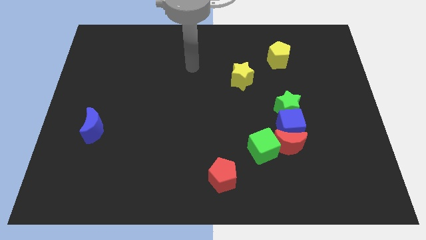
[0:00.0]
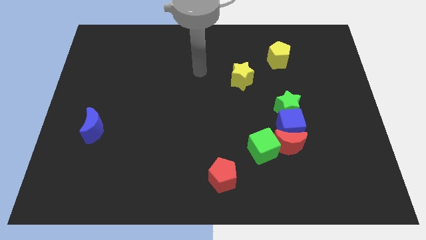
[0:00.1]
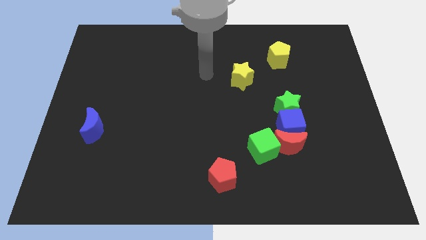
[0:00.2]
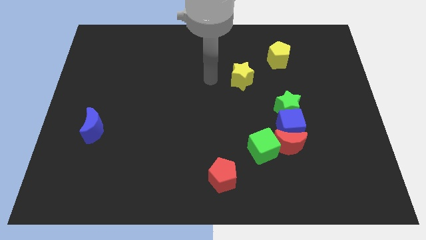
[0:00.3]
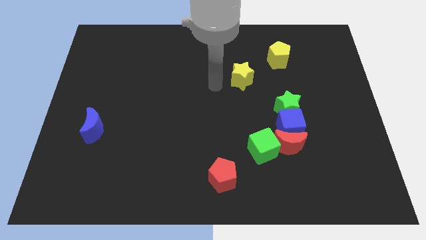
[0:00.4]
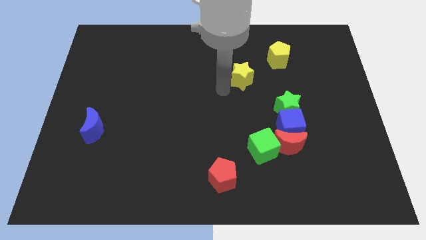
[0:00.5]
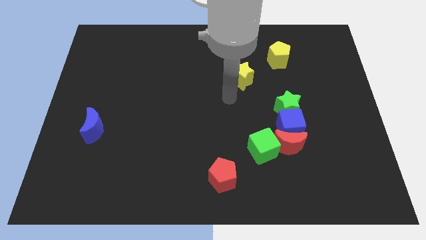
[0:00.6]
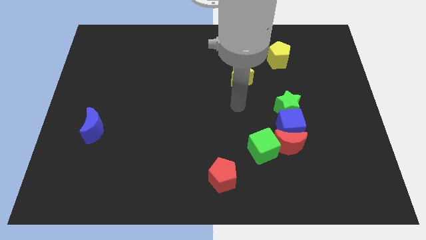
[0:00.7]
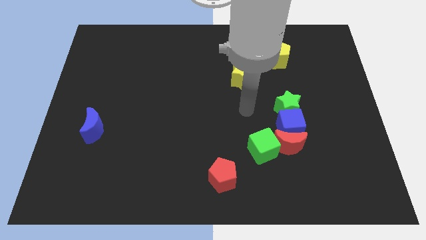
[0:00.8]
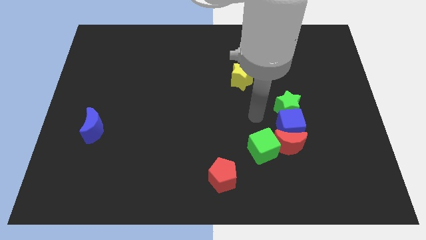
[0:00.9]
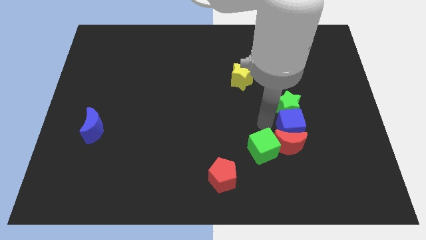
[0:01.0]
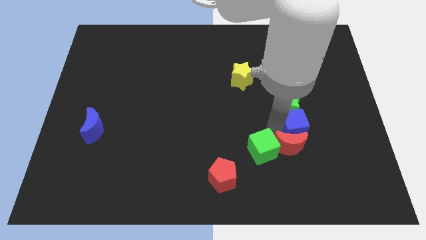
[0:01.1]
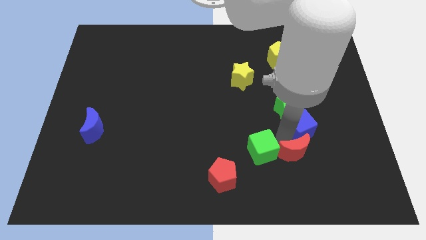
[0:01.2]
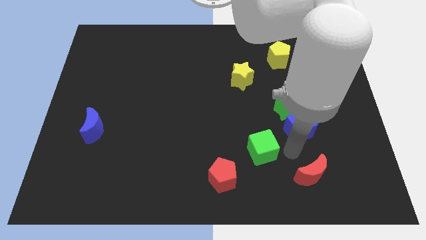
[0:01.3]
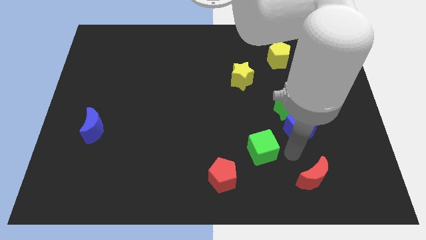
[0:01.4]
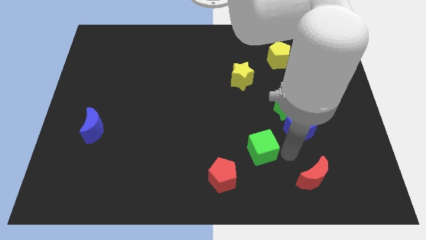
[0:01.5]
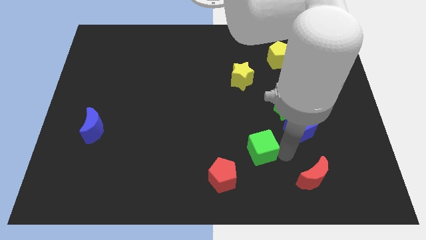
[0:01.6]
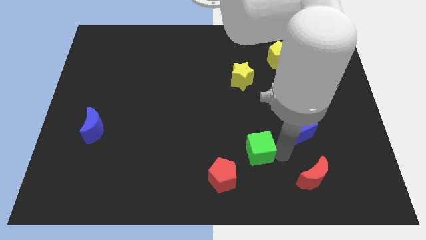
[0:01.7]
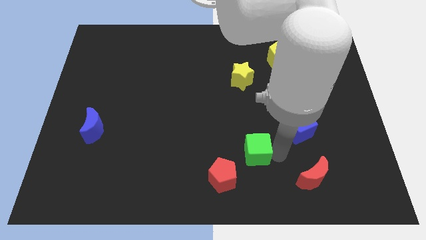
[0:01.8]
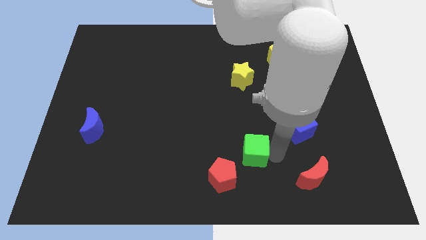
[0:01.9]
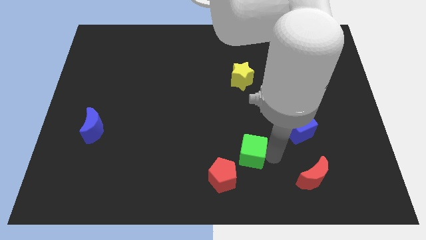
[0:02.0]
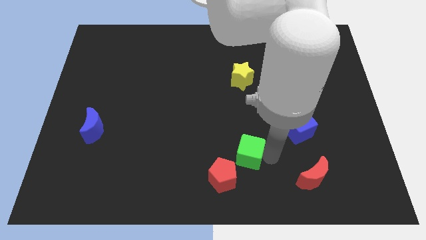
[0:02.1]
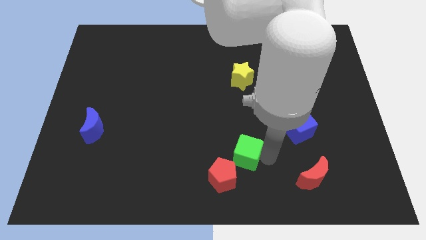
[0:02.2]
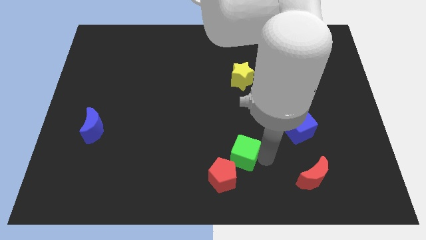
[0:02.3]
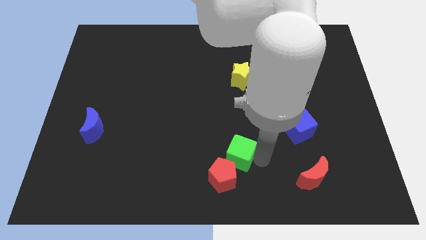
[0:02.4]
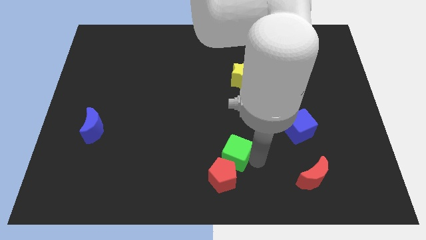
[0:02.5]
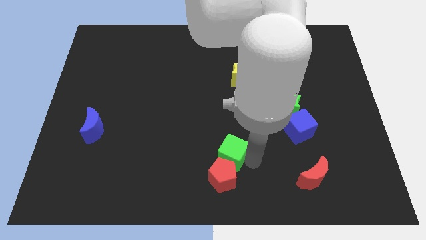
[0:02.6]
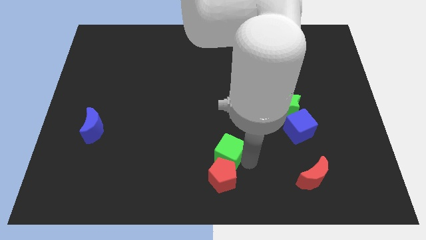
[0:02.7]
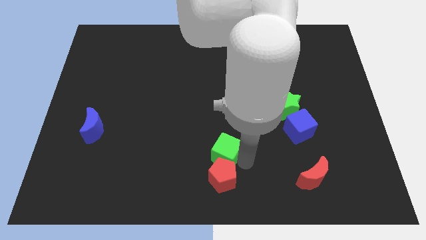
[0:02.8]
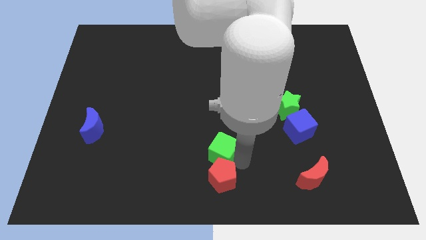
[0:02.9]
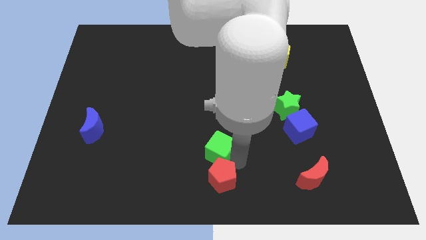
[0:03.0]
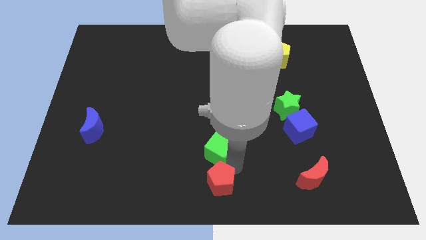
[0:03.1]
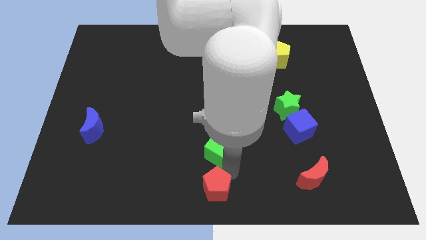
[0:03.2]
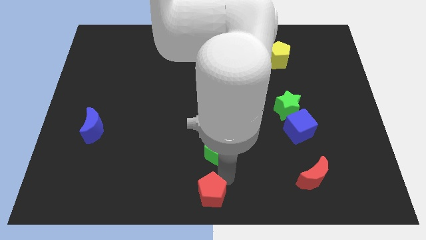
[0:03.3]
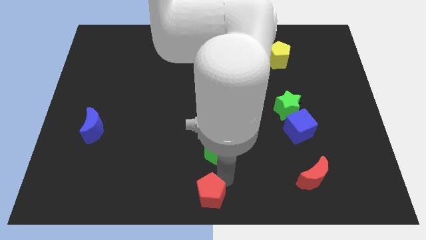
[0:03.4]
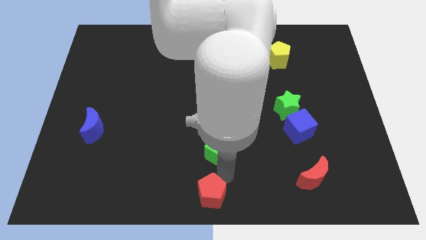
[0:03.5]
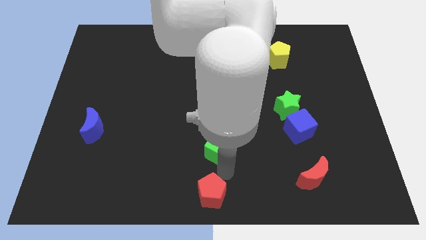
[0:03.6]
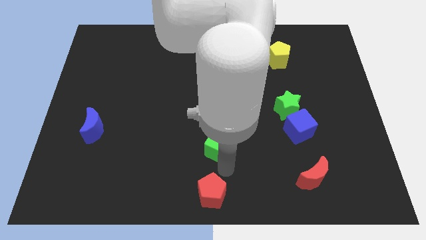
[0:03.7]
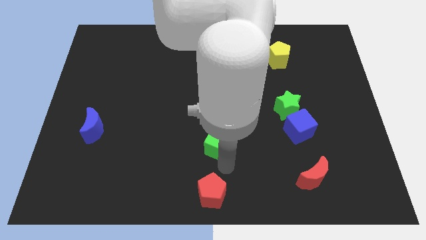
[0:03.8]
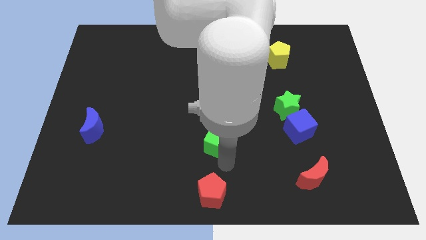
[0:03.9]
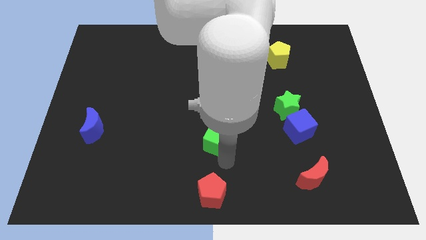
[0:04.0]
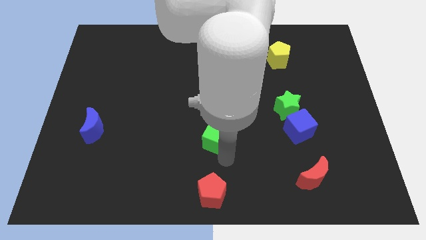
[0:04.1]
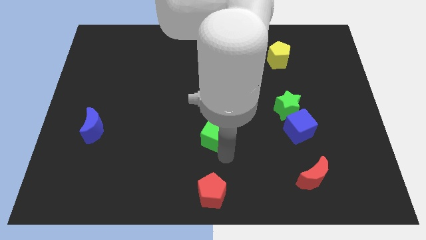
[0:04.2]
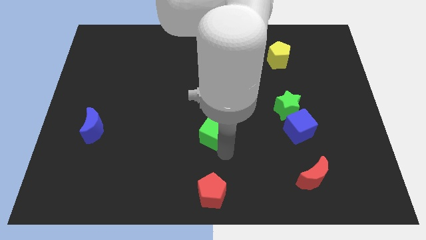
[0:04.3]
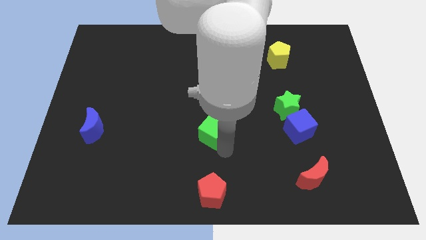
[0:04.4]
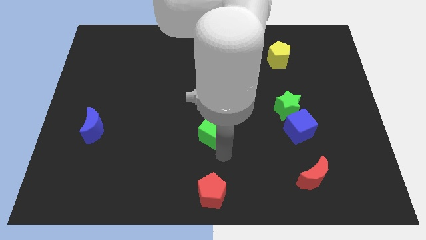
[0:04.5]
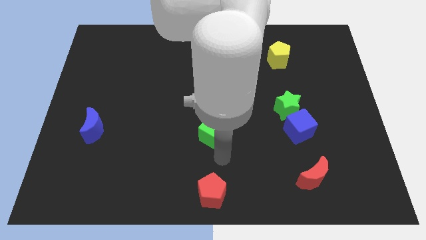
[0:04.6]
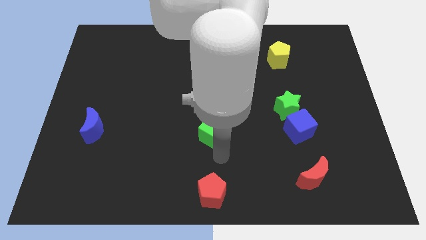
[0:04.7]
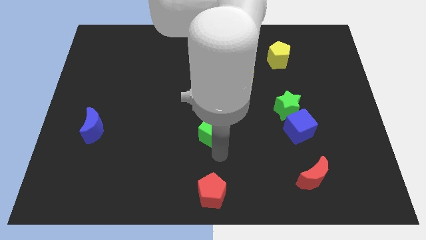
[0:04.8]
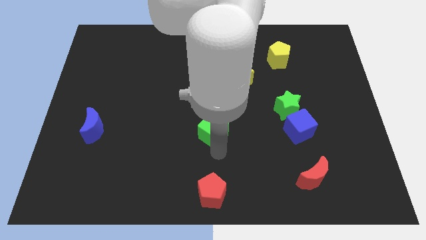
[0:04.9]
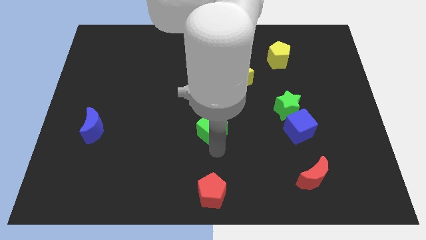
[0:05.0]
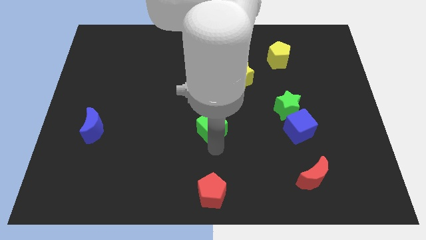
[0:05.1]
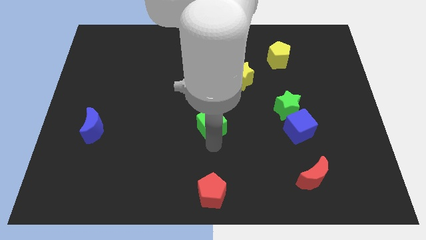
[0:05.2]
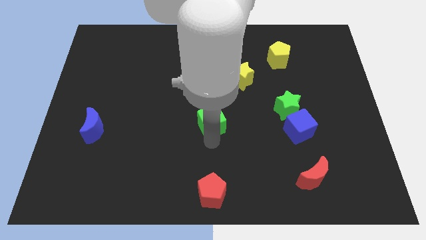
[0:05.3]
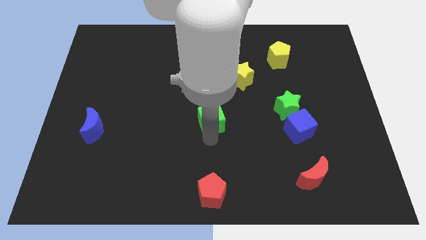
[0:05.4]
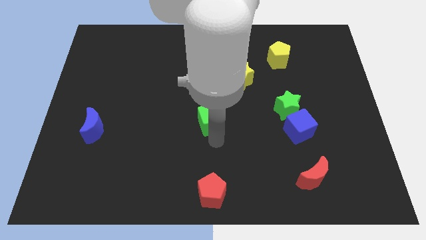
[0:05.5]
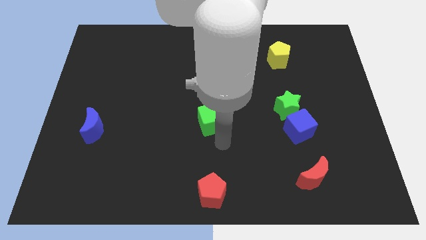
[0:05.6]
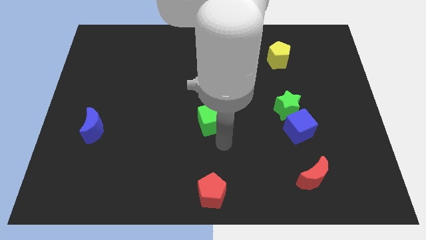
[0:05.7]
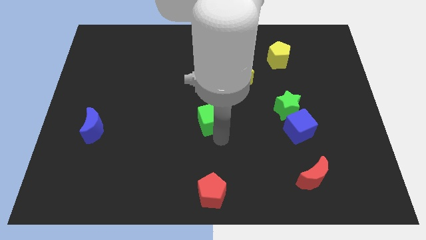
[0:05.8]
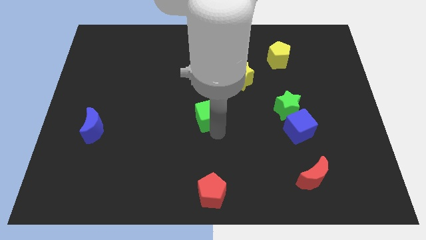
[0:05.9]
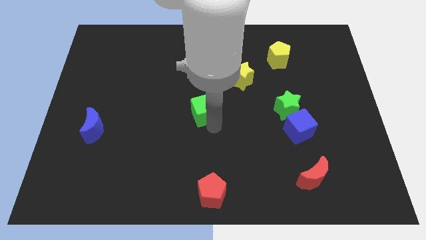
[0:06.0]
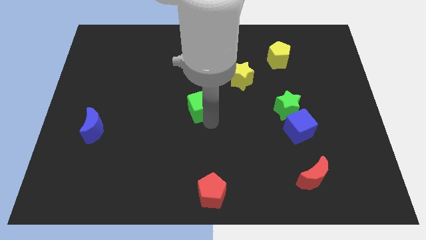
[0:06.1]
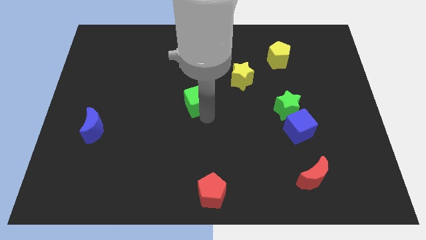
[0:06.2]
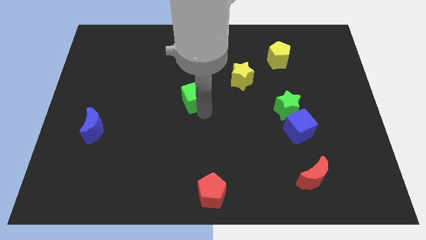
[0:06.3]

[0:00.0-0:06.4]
slide the green cube up and then to the left

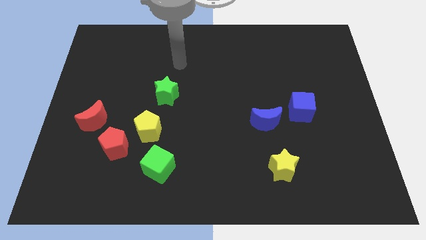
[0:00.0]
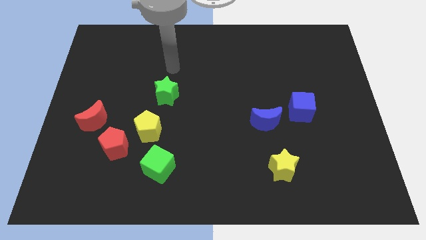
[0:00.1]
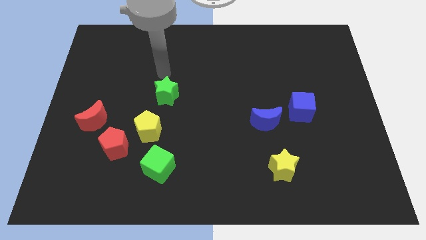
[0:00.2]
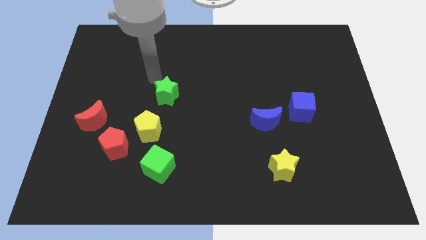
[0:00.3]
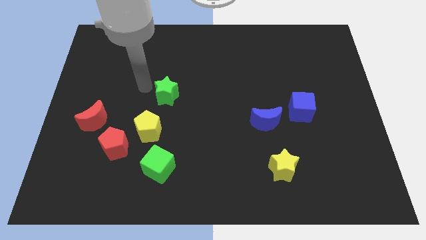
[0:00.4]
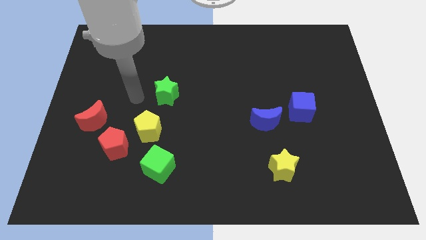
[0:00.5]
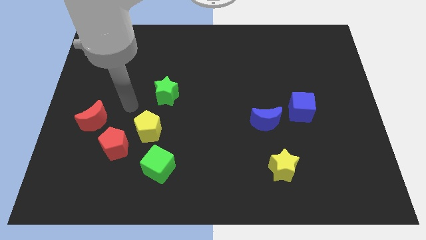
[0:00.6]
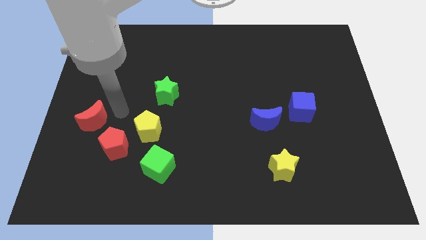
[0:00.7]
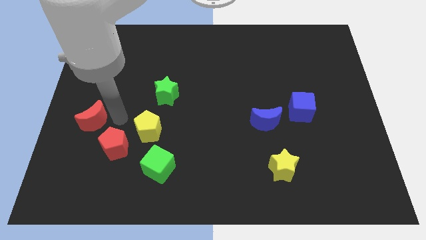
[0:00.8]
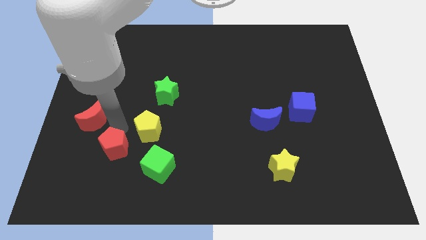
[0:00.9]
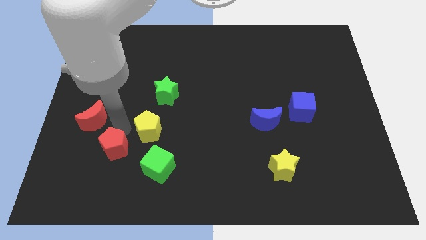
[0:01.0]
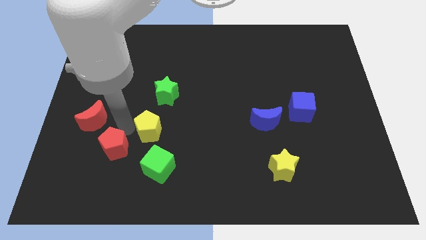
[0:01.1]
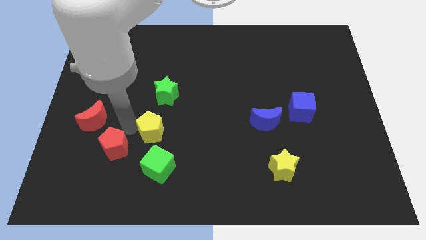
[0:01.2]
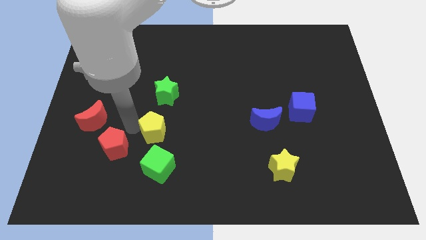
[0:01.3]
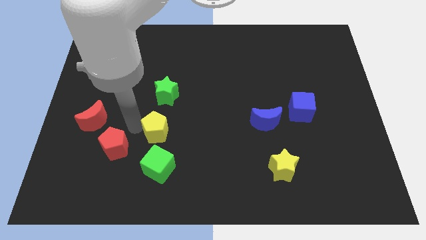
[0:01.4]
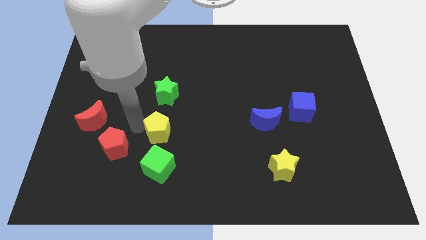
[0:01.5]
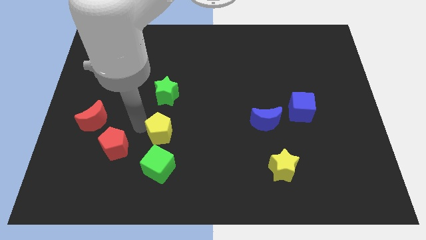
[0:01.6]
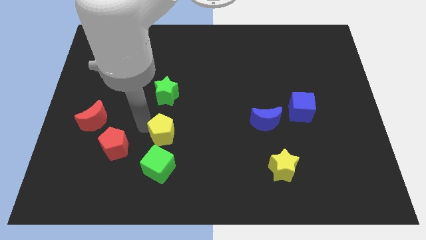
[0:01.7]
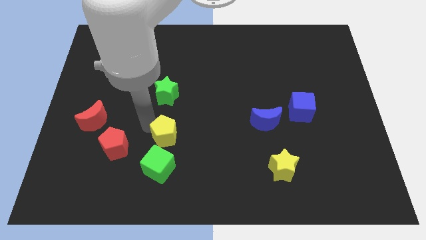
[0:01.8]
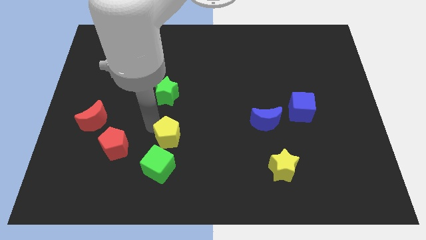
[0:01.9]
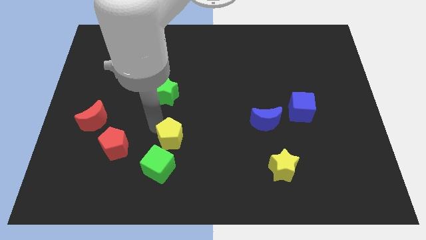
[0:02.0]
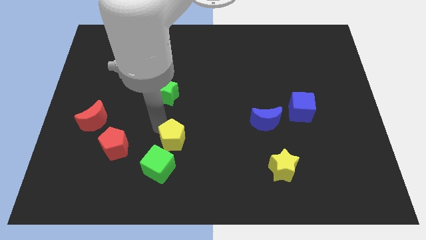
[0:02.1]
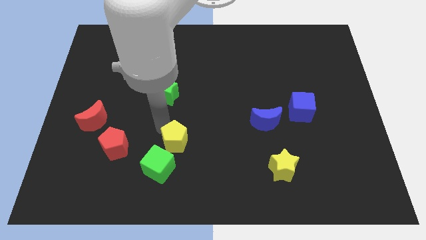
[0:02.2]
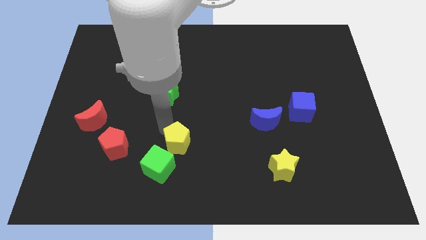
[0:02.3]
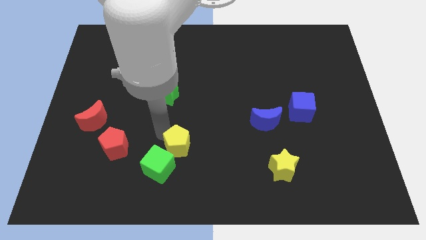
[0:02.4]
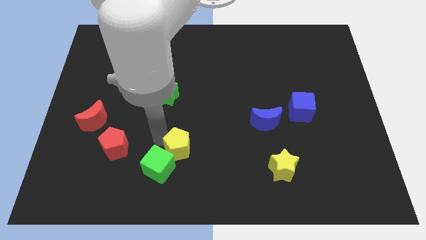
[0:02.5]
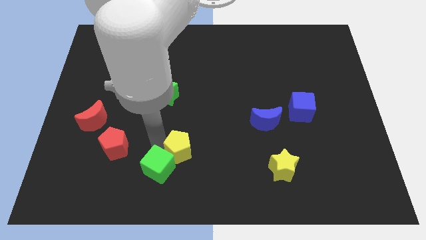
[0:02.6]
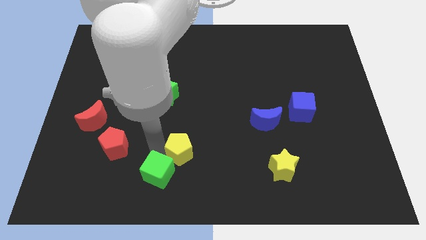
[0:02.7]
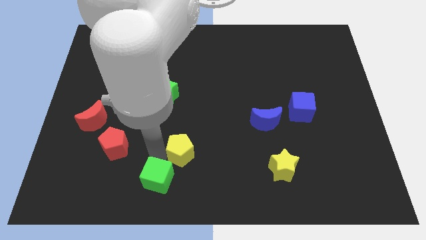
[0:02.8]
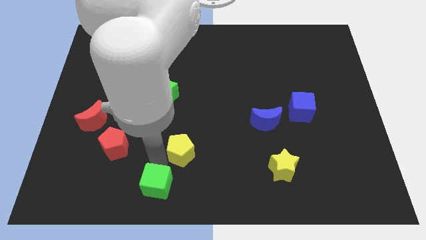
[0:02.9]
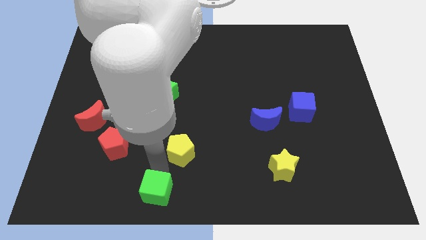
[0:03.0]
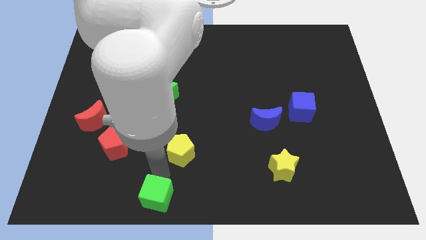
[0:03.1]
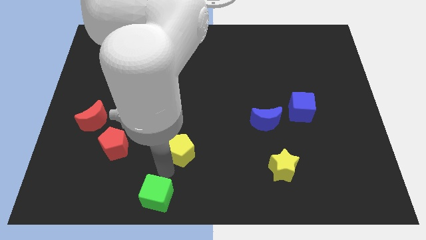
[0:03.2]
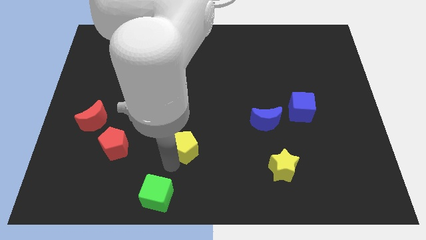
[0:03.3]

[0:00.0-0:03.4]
slightly move the yellow pentagon right
